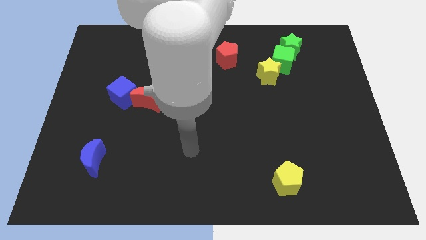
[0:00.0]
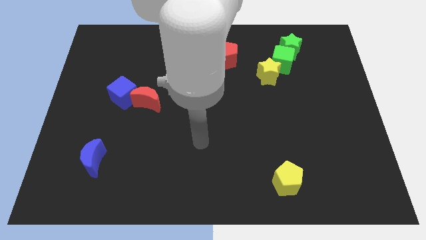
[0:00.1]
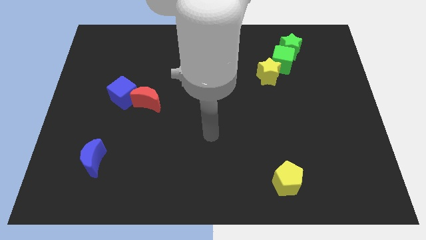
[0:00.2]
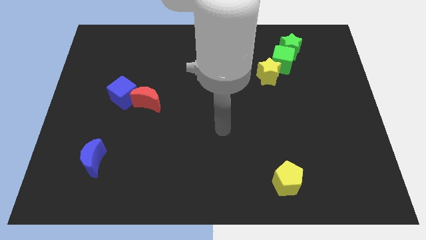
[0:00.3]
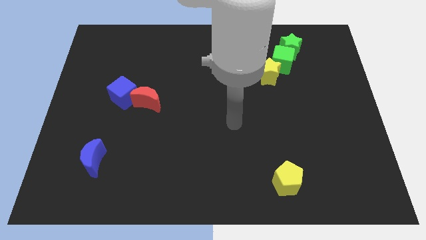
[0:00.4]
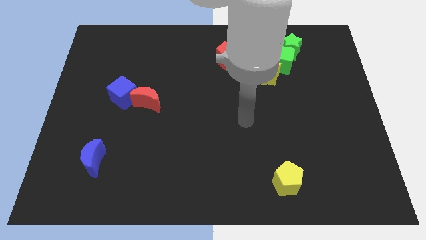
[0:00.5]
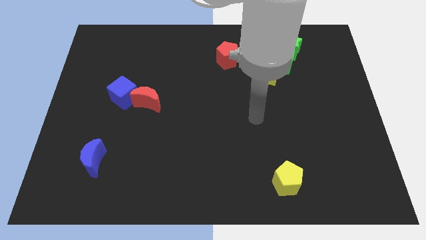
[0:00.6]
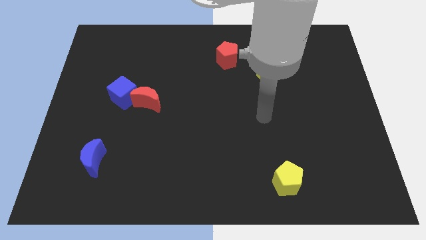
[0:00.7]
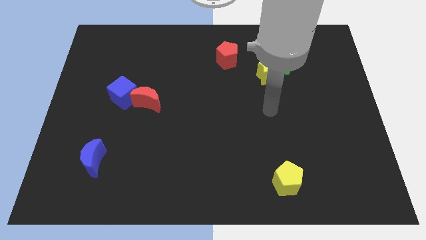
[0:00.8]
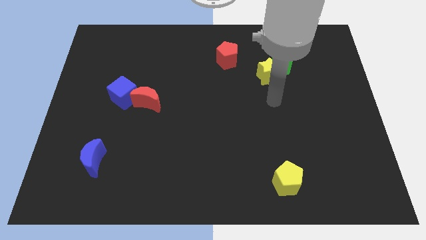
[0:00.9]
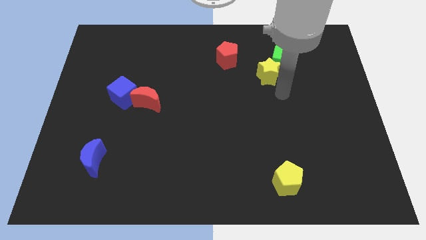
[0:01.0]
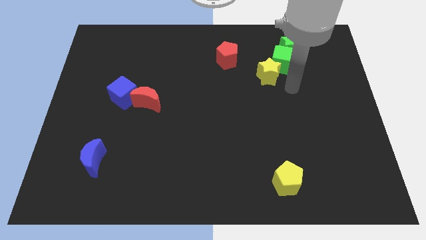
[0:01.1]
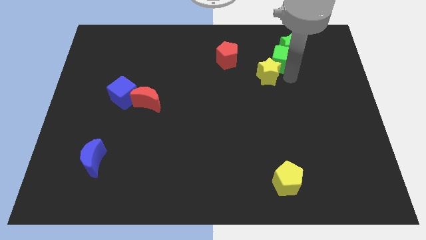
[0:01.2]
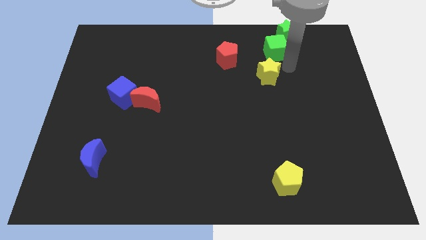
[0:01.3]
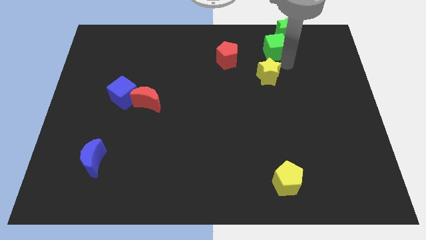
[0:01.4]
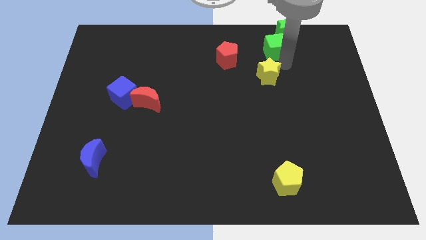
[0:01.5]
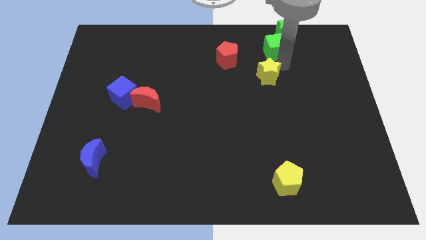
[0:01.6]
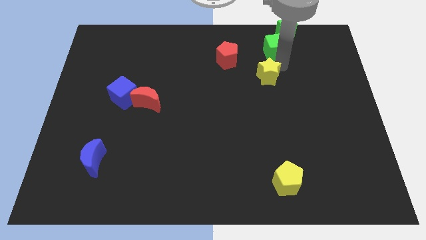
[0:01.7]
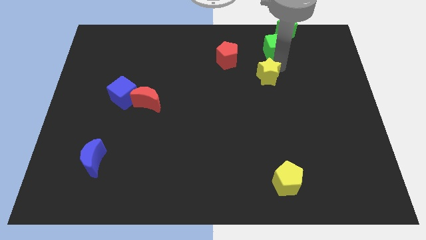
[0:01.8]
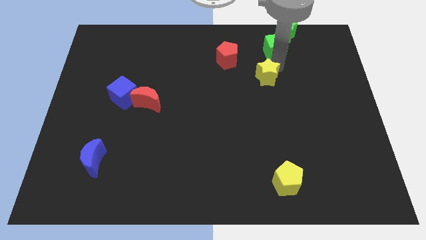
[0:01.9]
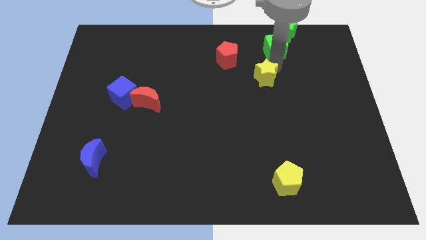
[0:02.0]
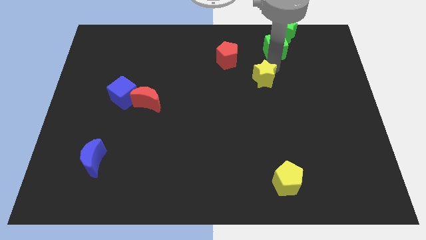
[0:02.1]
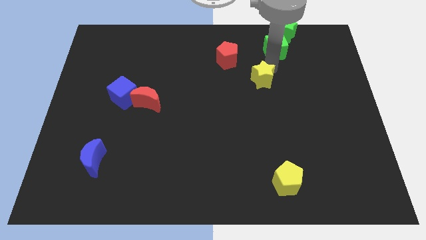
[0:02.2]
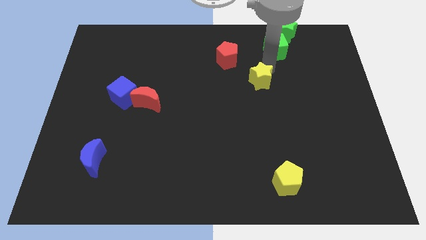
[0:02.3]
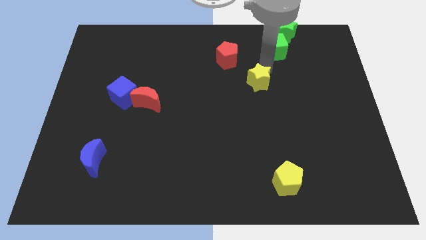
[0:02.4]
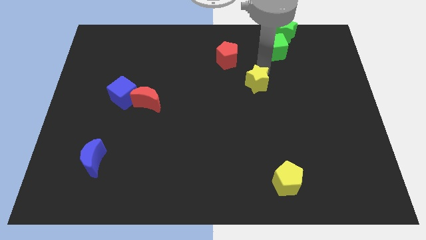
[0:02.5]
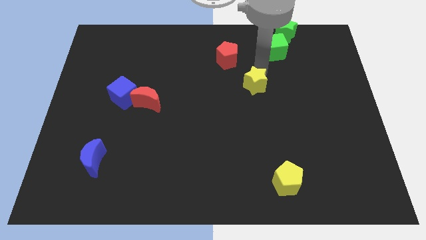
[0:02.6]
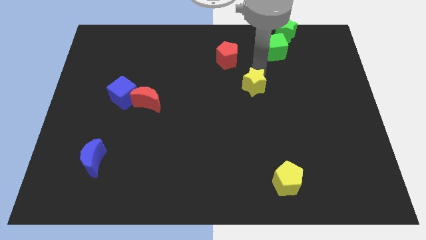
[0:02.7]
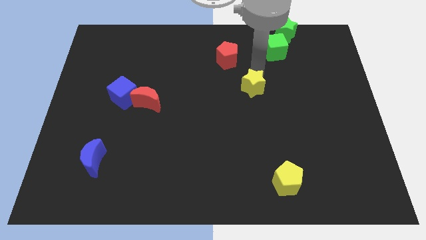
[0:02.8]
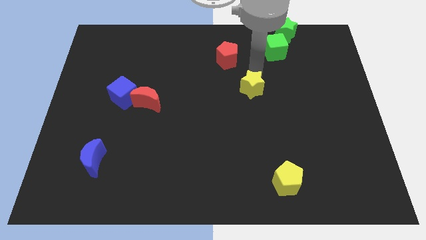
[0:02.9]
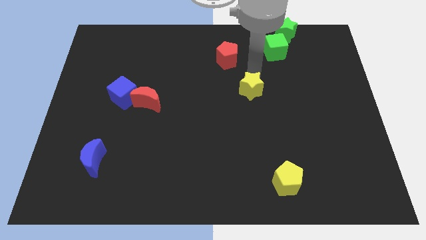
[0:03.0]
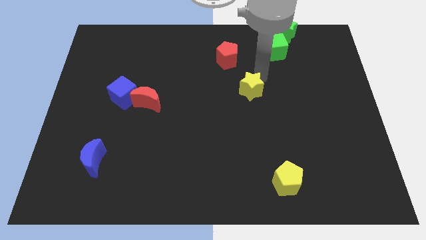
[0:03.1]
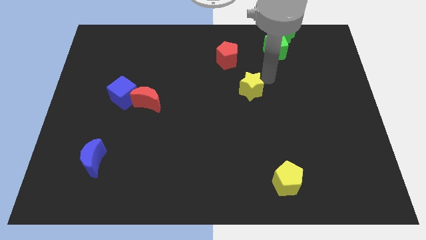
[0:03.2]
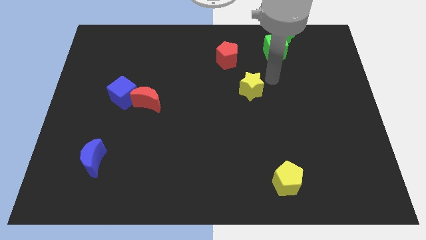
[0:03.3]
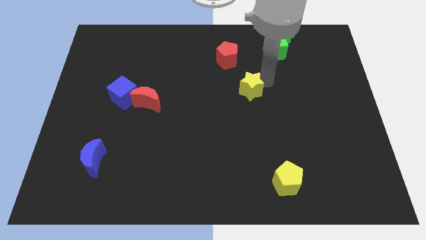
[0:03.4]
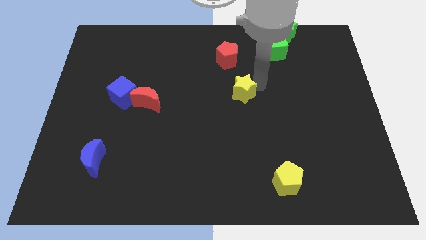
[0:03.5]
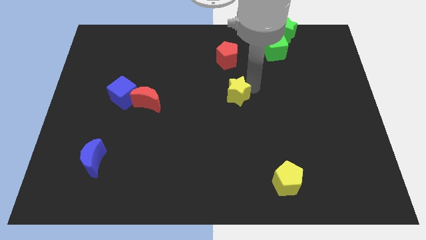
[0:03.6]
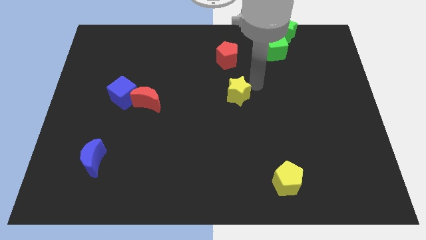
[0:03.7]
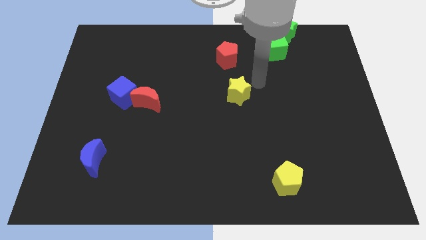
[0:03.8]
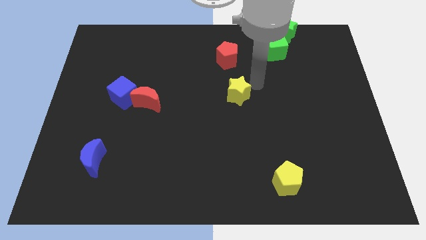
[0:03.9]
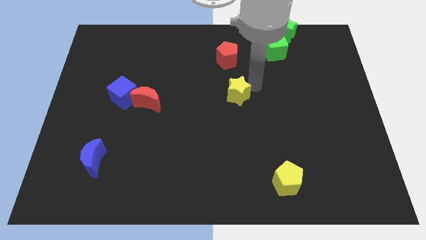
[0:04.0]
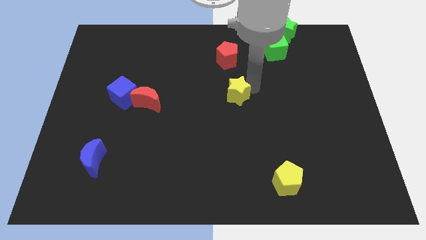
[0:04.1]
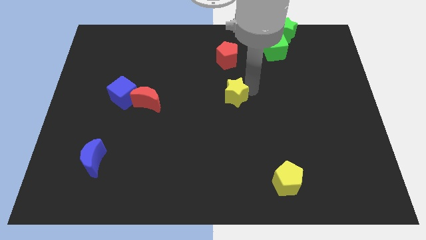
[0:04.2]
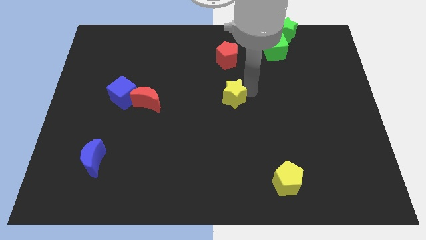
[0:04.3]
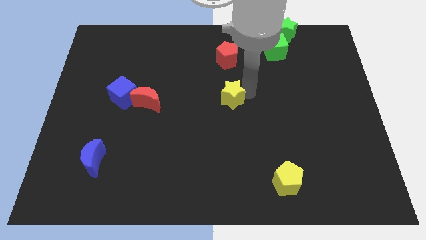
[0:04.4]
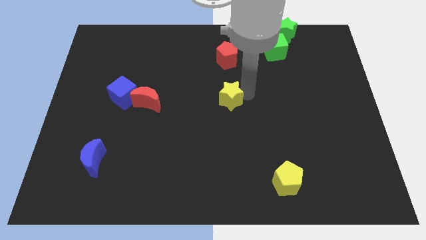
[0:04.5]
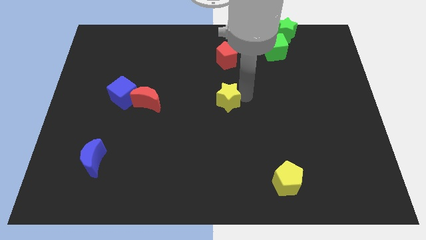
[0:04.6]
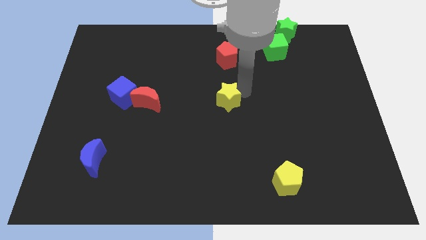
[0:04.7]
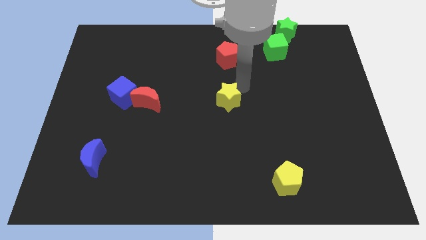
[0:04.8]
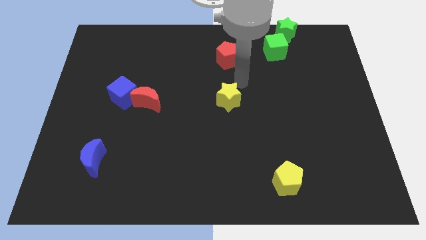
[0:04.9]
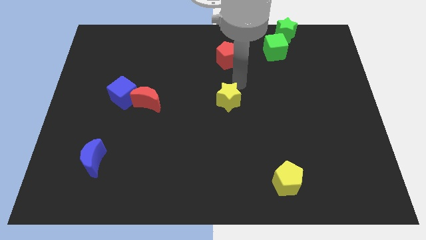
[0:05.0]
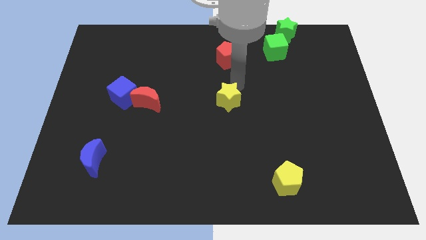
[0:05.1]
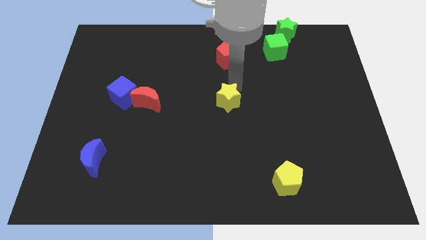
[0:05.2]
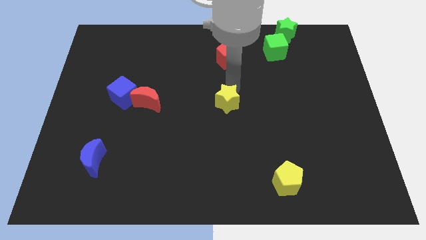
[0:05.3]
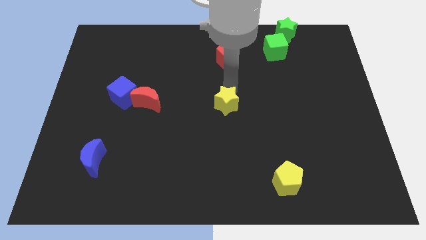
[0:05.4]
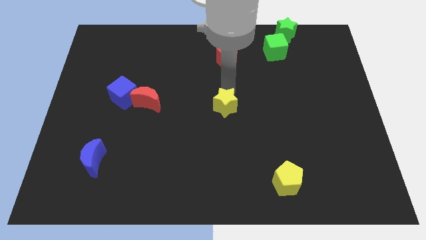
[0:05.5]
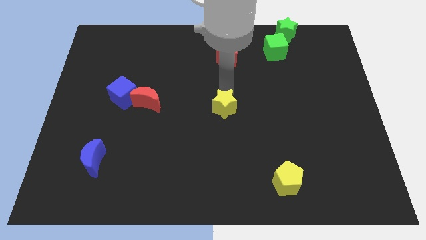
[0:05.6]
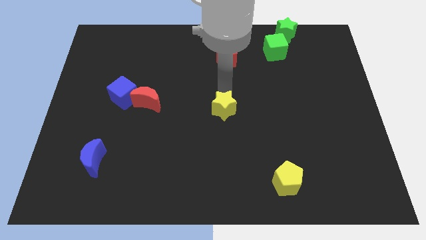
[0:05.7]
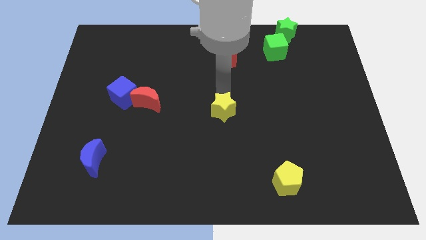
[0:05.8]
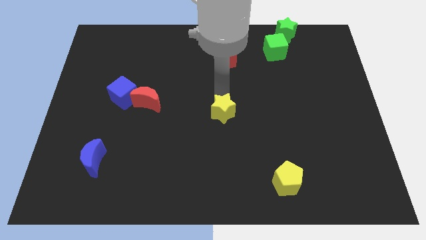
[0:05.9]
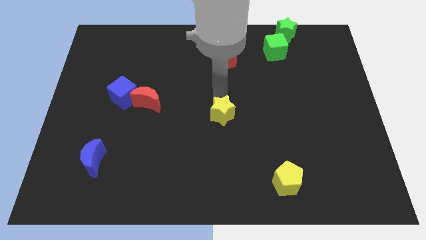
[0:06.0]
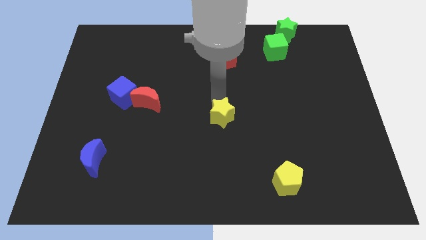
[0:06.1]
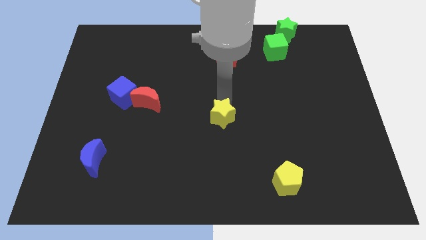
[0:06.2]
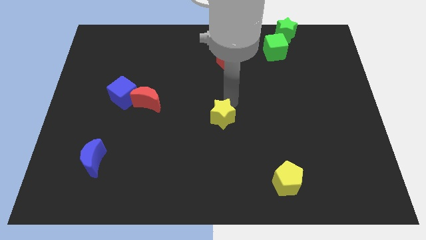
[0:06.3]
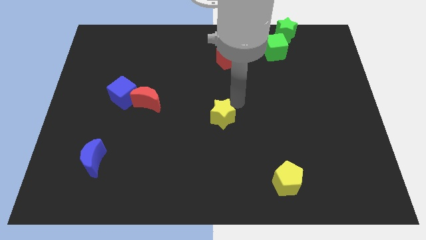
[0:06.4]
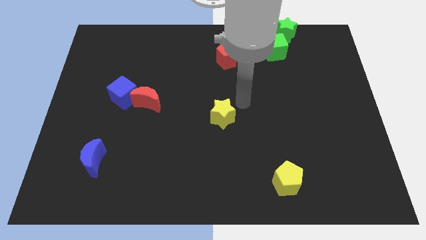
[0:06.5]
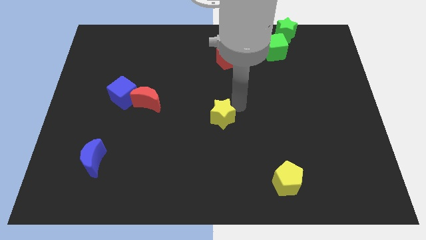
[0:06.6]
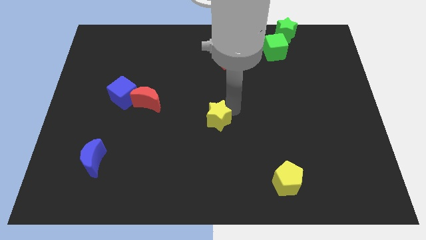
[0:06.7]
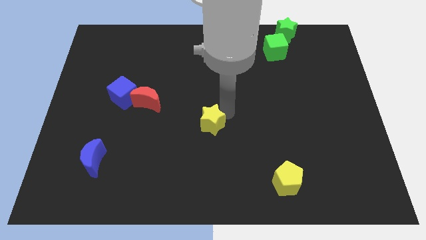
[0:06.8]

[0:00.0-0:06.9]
move the yellow star down and left diagonally

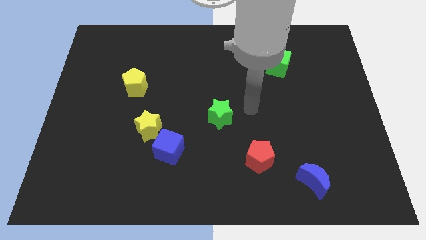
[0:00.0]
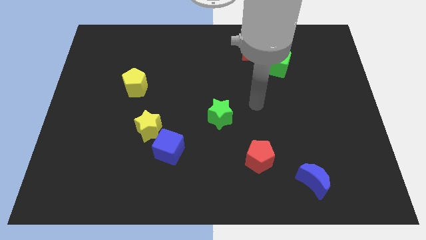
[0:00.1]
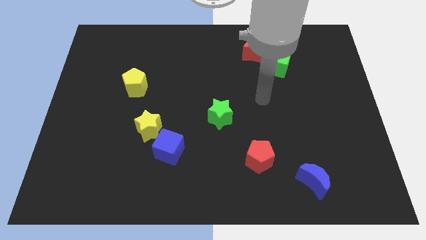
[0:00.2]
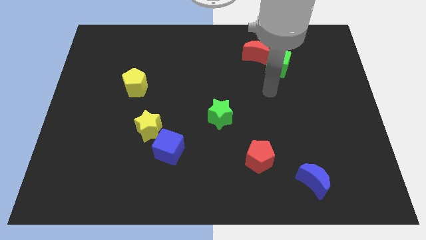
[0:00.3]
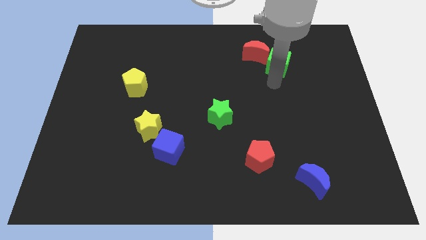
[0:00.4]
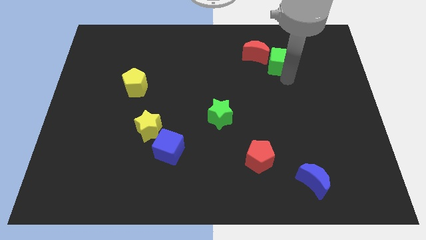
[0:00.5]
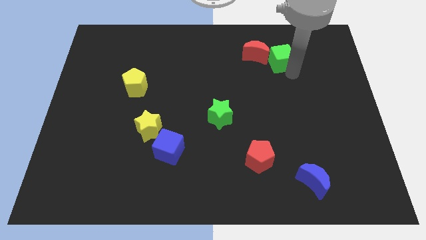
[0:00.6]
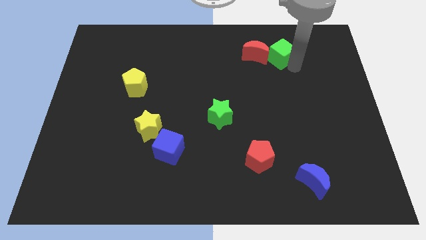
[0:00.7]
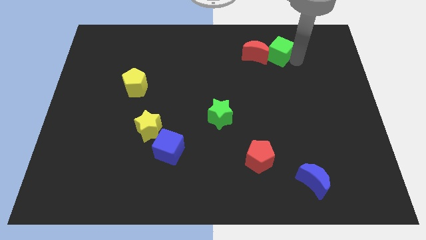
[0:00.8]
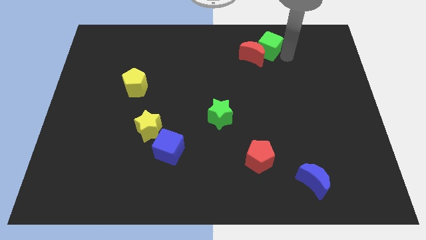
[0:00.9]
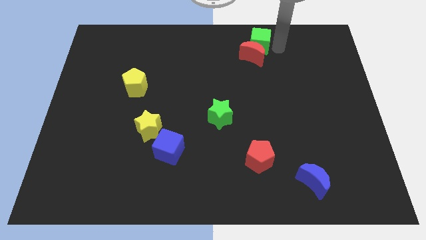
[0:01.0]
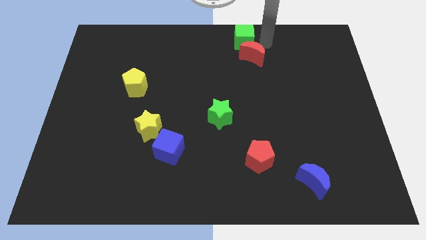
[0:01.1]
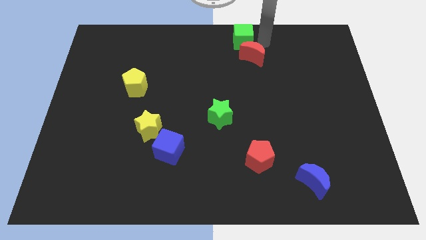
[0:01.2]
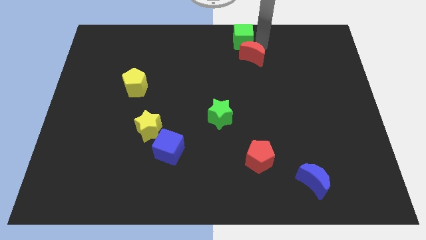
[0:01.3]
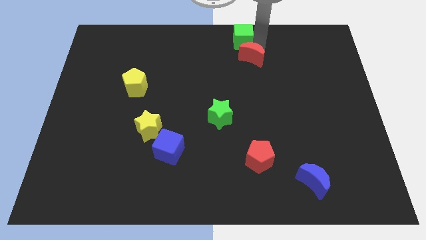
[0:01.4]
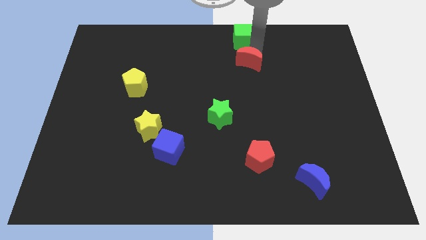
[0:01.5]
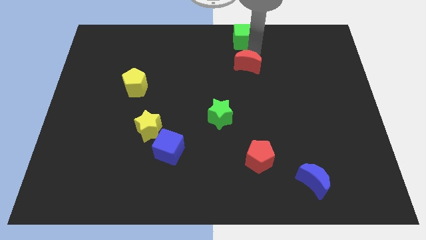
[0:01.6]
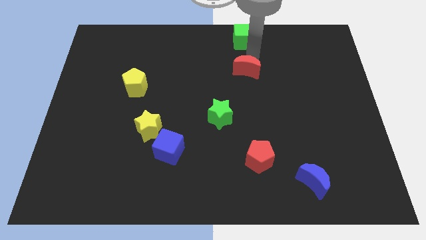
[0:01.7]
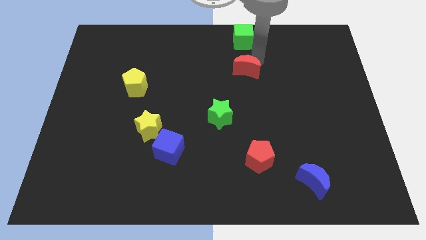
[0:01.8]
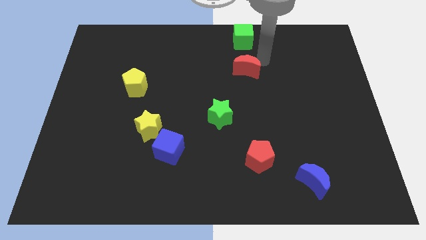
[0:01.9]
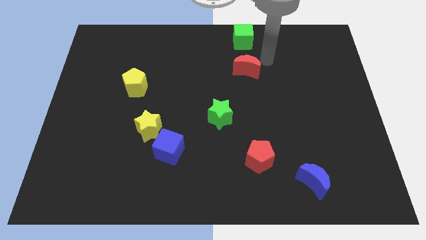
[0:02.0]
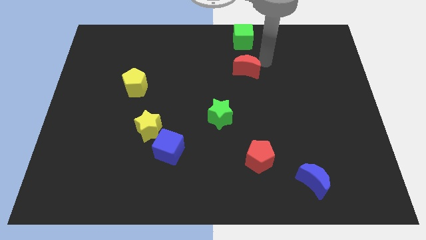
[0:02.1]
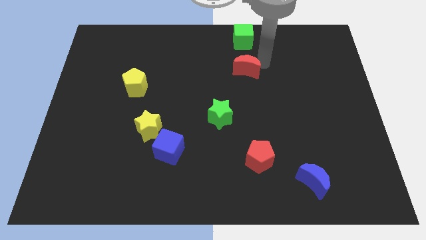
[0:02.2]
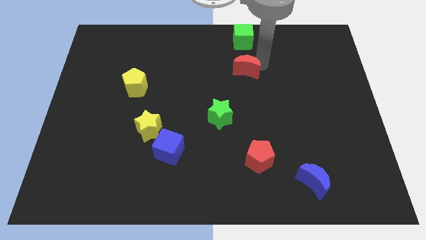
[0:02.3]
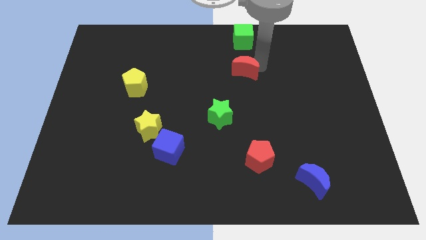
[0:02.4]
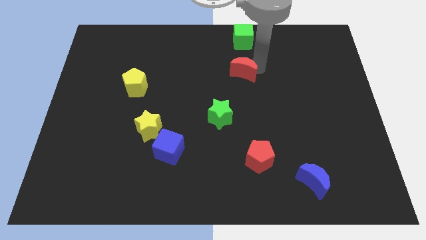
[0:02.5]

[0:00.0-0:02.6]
move the red moon downwards and left diagonally a bit
